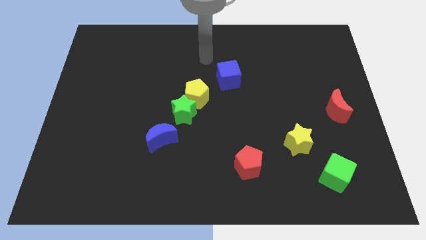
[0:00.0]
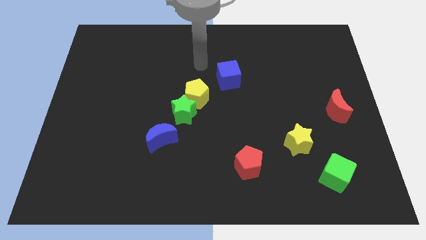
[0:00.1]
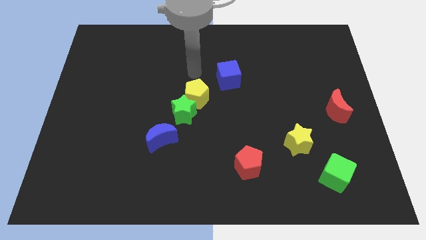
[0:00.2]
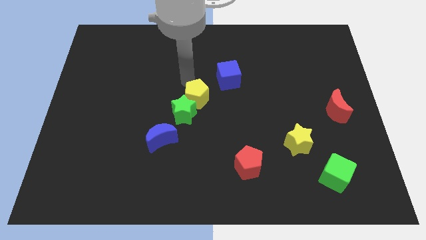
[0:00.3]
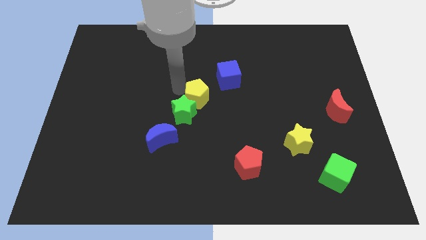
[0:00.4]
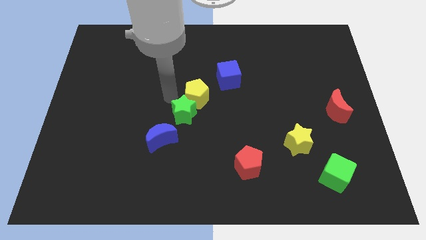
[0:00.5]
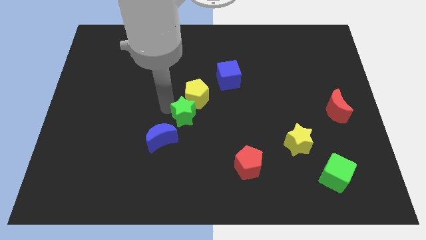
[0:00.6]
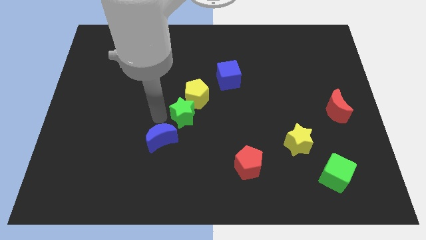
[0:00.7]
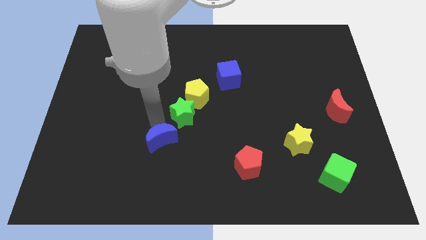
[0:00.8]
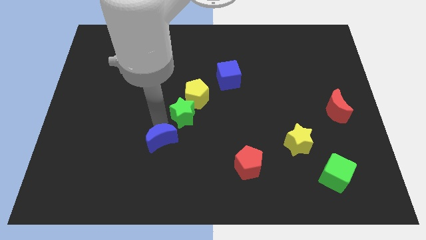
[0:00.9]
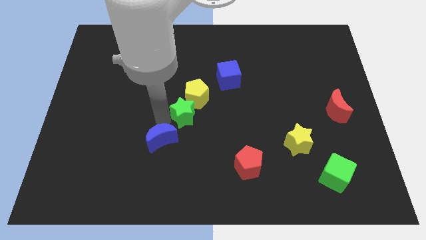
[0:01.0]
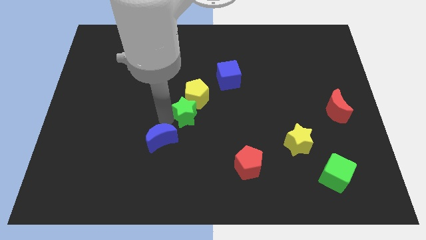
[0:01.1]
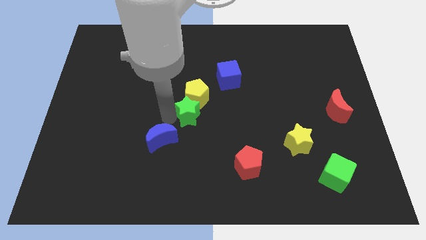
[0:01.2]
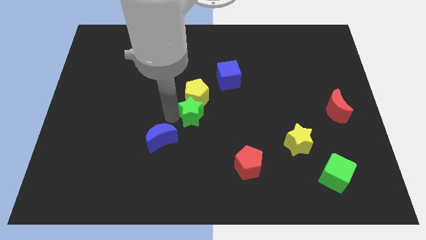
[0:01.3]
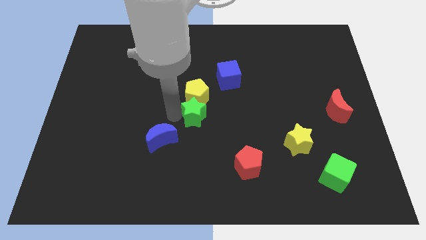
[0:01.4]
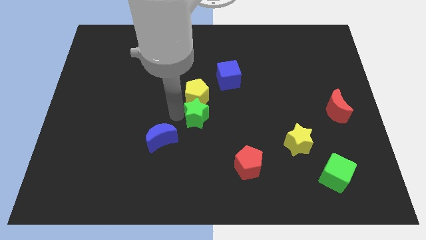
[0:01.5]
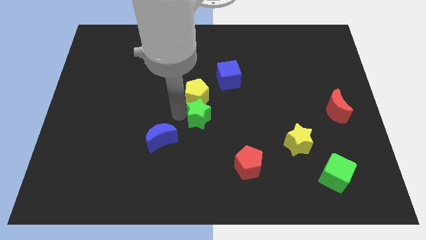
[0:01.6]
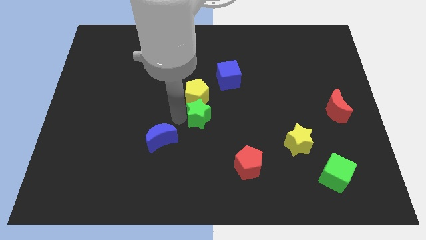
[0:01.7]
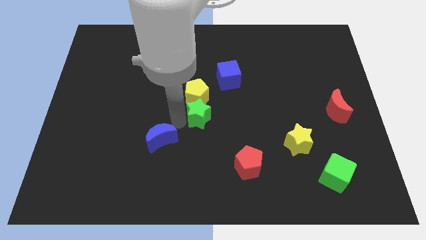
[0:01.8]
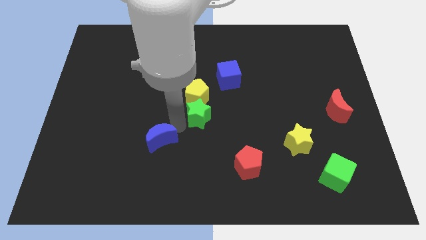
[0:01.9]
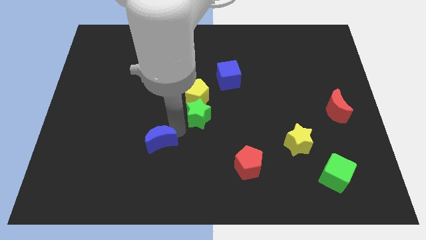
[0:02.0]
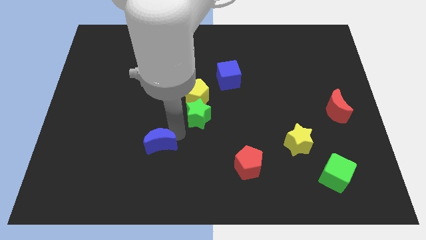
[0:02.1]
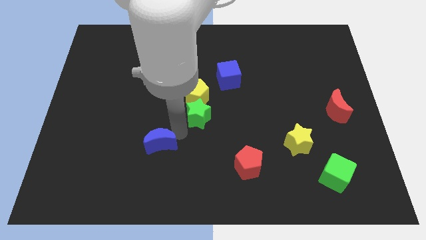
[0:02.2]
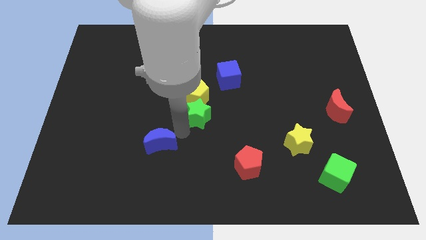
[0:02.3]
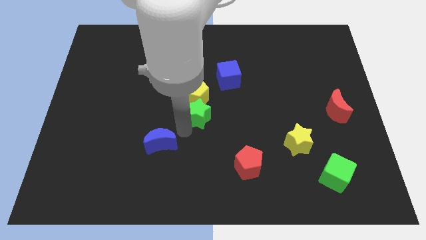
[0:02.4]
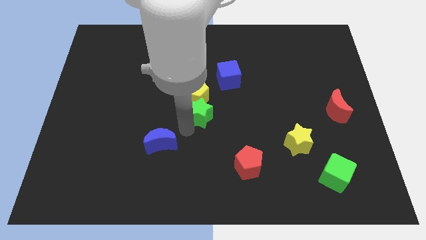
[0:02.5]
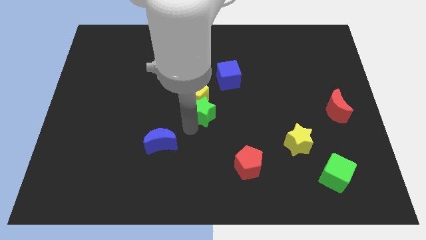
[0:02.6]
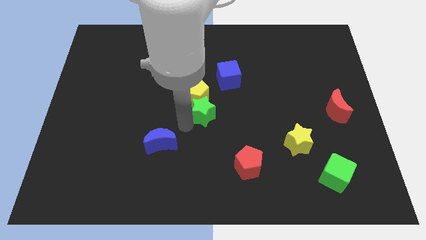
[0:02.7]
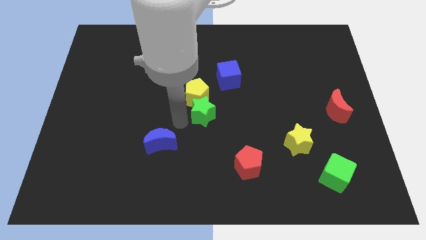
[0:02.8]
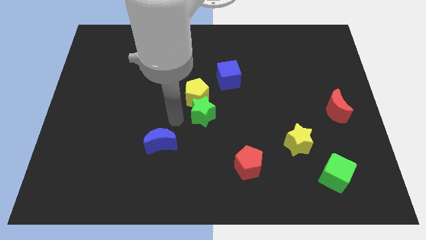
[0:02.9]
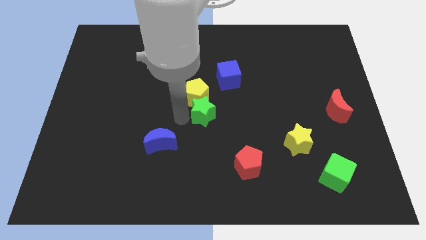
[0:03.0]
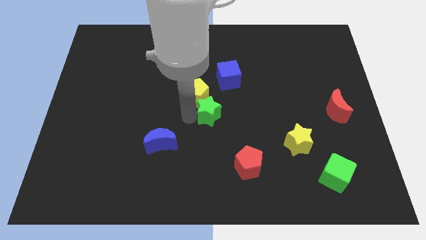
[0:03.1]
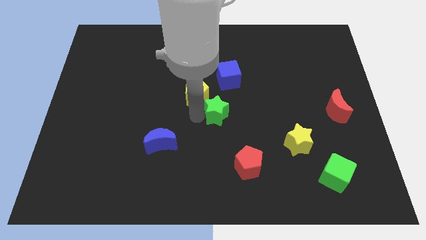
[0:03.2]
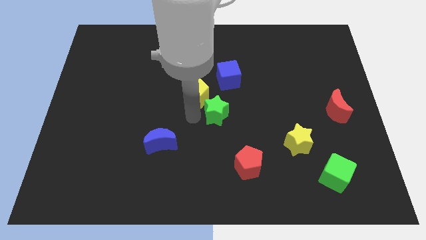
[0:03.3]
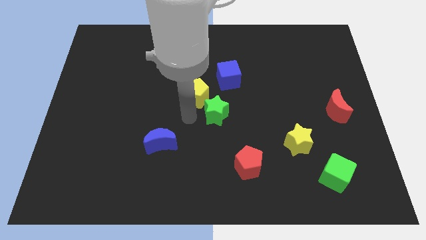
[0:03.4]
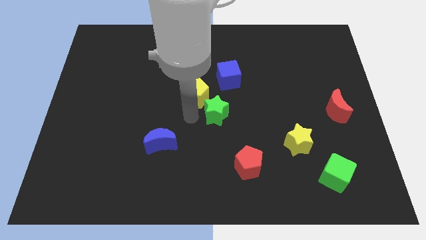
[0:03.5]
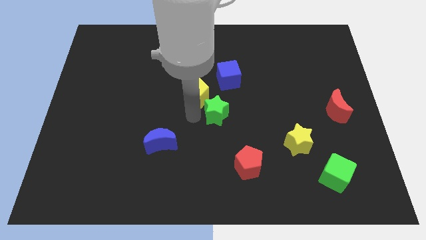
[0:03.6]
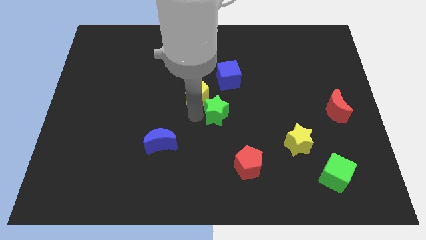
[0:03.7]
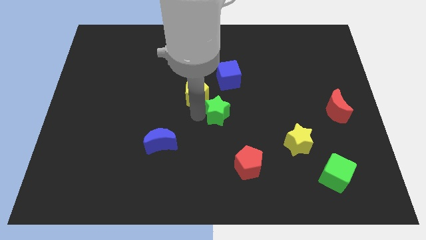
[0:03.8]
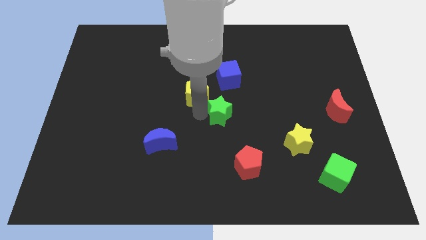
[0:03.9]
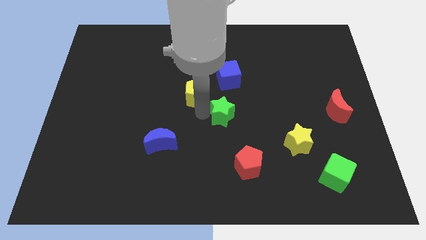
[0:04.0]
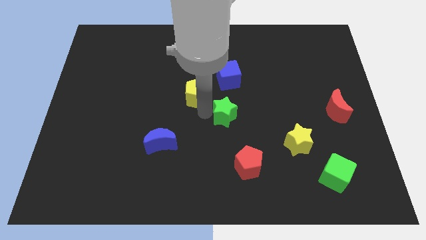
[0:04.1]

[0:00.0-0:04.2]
separate the green star from the yellow pentagon and blue moon

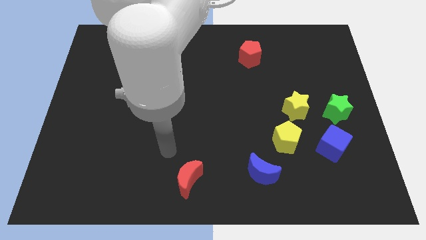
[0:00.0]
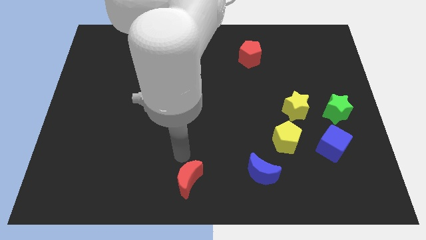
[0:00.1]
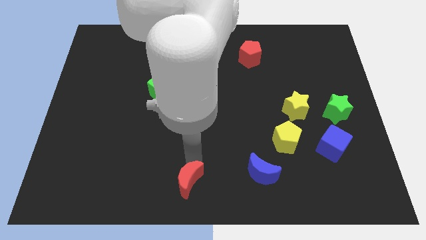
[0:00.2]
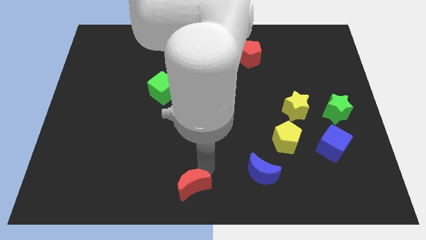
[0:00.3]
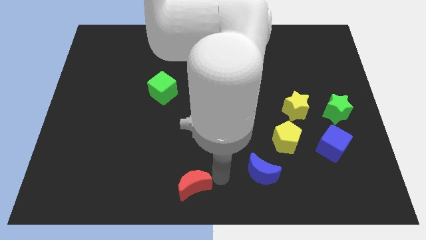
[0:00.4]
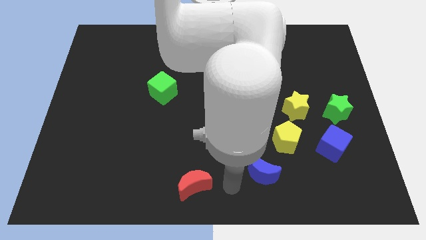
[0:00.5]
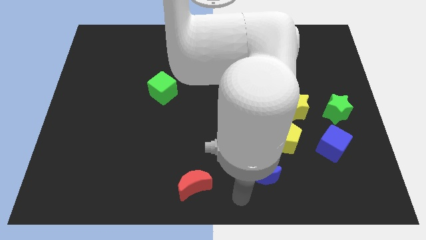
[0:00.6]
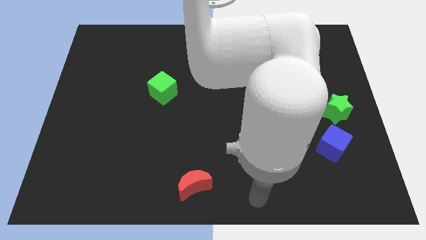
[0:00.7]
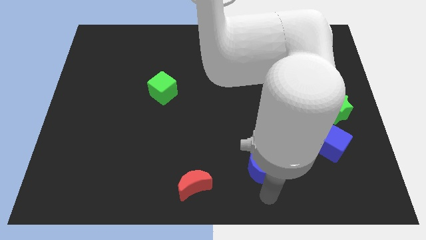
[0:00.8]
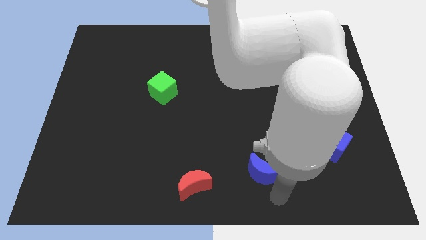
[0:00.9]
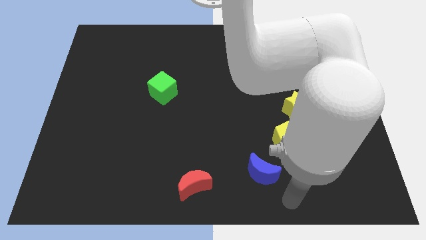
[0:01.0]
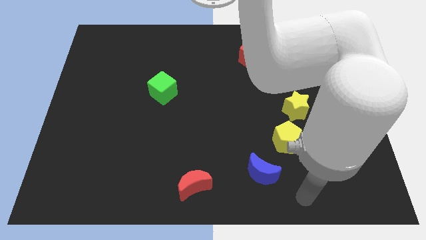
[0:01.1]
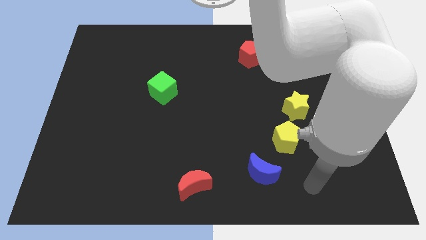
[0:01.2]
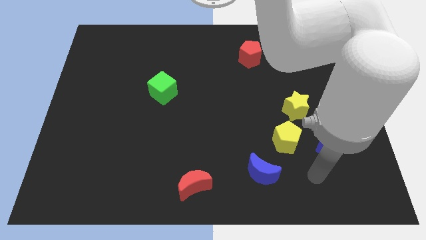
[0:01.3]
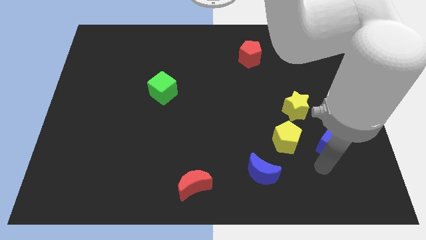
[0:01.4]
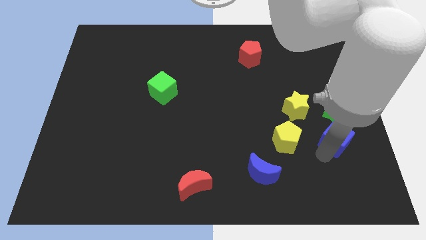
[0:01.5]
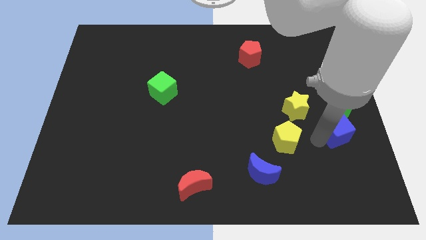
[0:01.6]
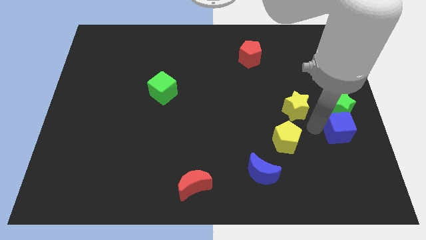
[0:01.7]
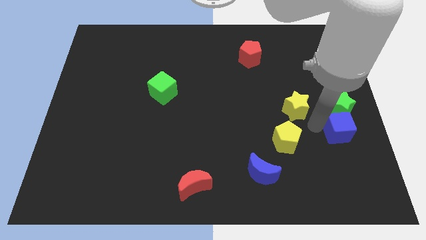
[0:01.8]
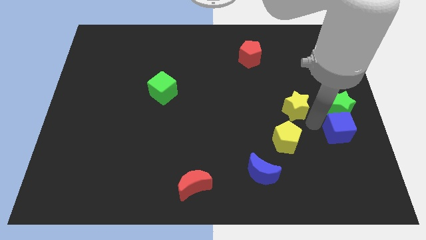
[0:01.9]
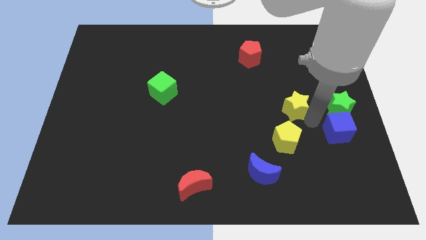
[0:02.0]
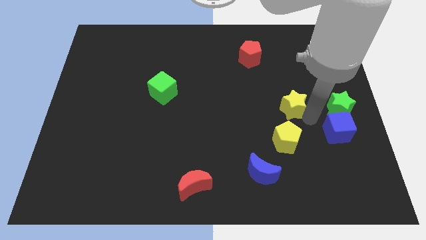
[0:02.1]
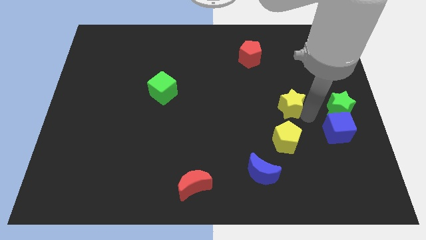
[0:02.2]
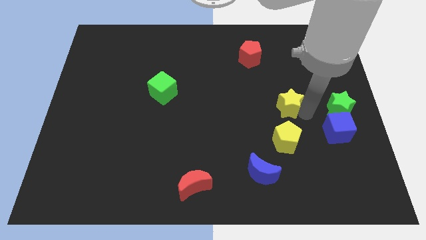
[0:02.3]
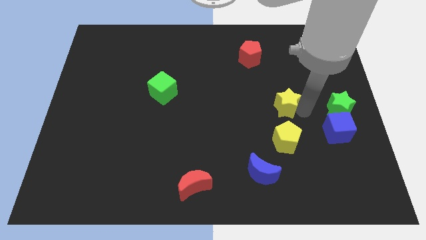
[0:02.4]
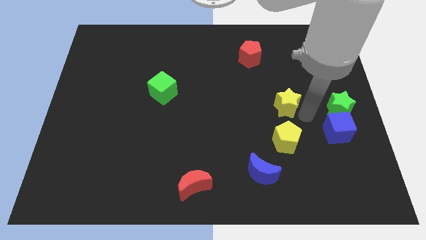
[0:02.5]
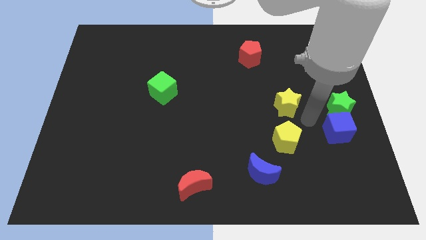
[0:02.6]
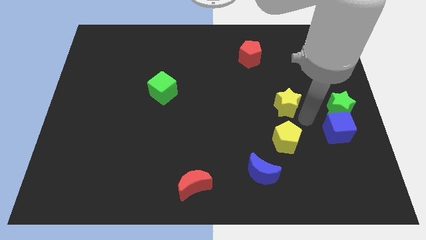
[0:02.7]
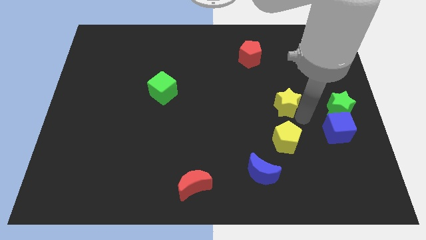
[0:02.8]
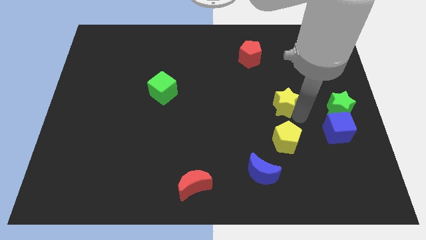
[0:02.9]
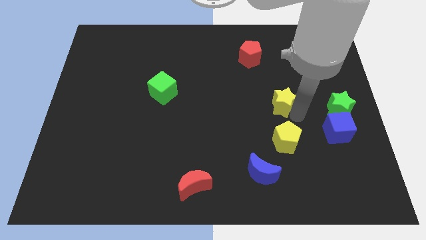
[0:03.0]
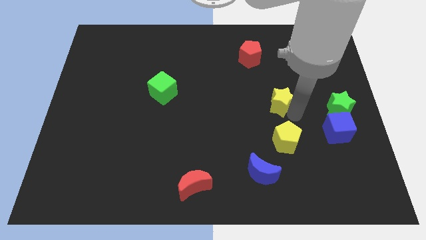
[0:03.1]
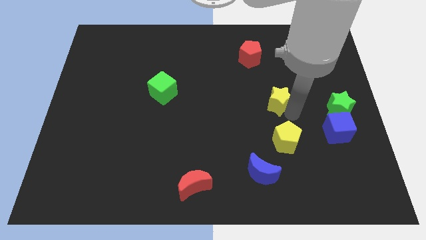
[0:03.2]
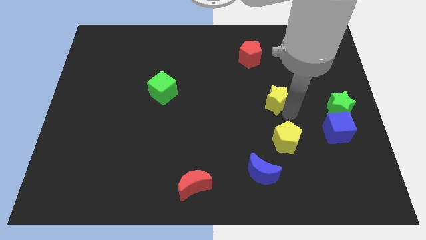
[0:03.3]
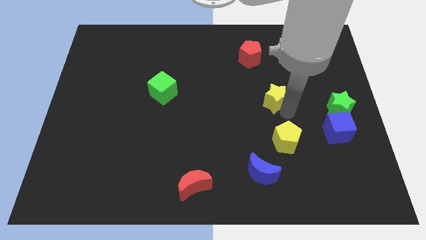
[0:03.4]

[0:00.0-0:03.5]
pull the yellow star apart from the yellow pentagon and green star

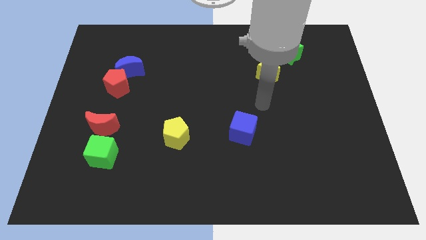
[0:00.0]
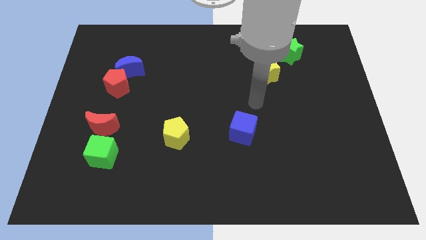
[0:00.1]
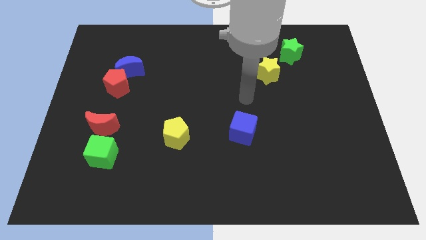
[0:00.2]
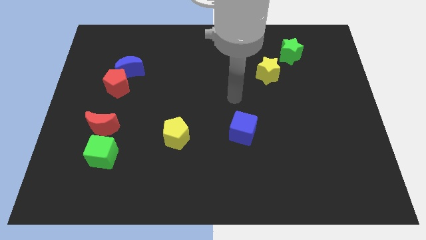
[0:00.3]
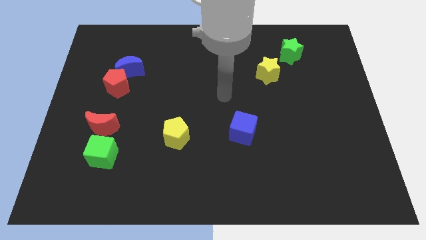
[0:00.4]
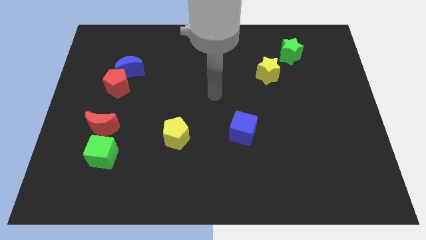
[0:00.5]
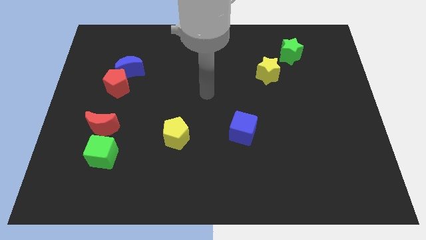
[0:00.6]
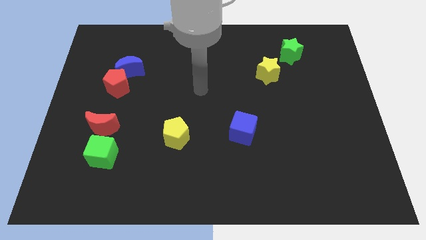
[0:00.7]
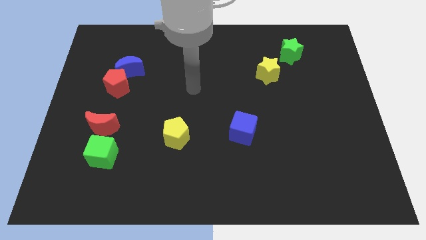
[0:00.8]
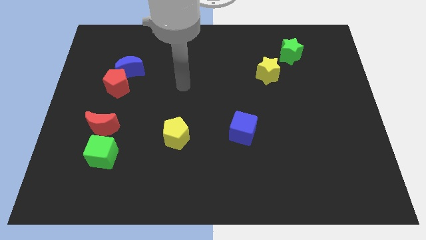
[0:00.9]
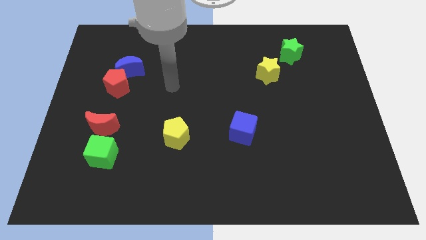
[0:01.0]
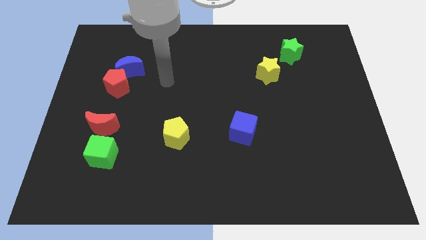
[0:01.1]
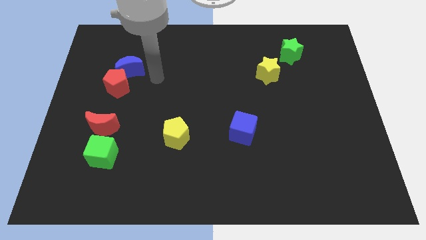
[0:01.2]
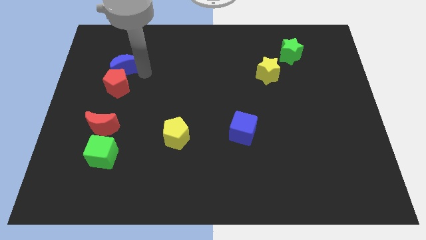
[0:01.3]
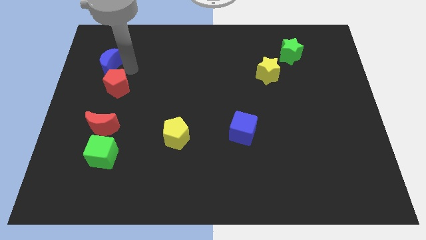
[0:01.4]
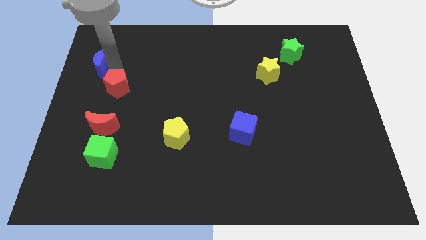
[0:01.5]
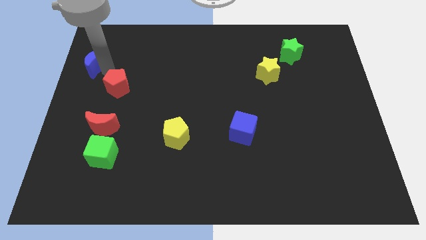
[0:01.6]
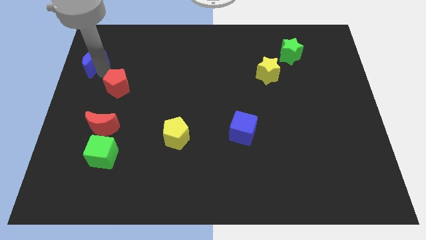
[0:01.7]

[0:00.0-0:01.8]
move the red pentagon away from the blue moon
